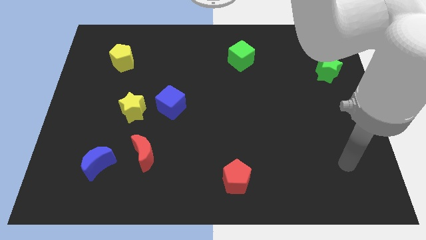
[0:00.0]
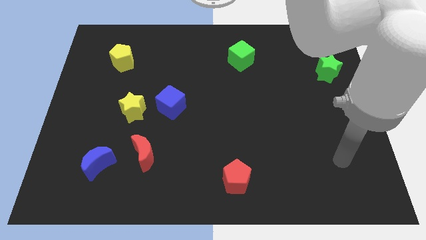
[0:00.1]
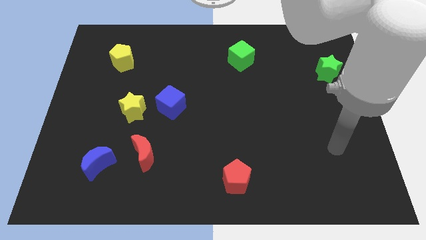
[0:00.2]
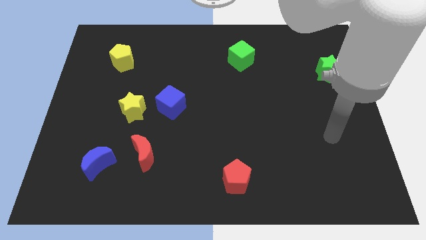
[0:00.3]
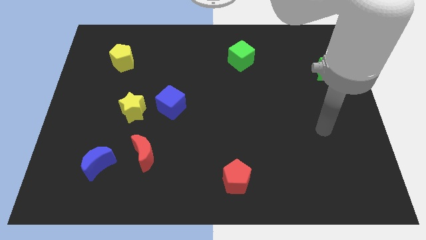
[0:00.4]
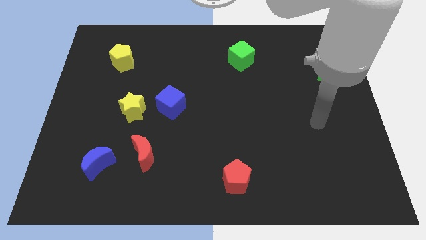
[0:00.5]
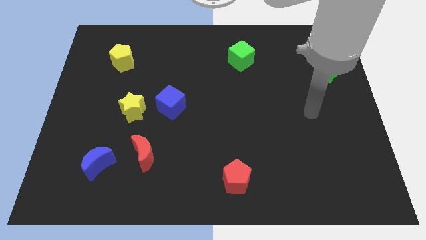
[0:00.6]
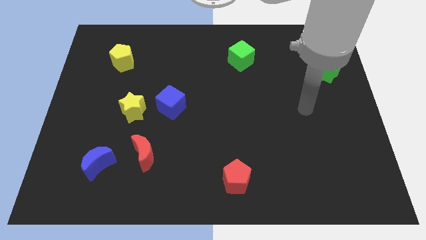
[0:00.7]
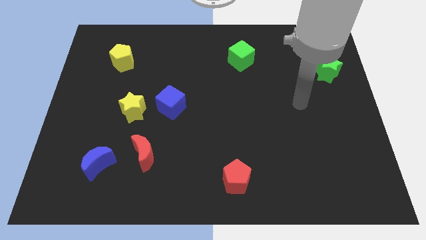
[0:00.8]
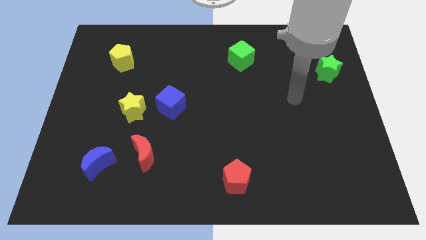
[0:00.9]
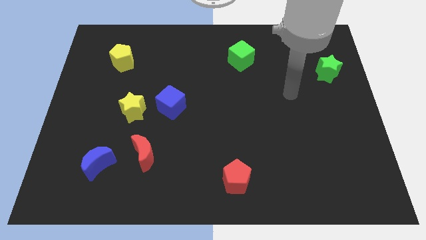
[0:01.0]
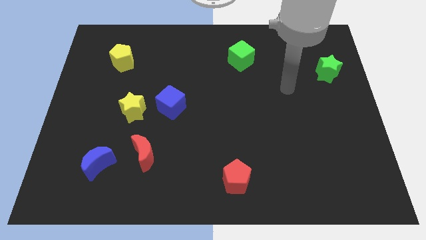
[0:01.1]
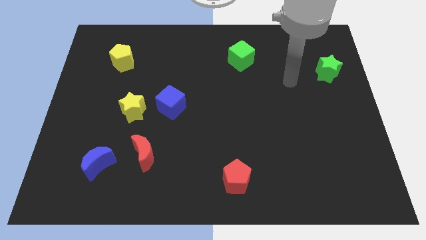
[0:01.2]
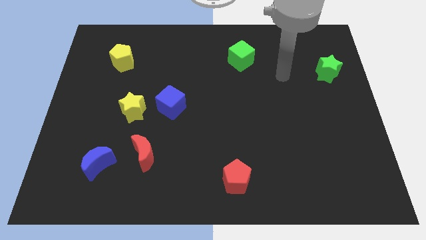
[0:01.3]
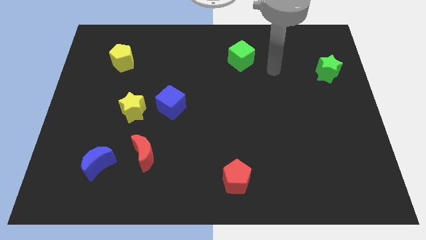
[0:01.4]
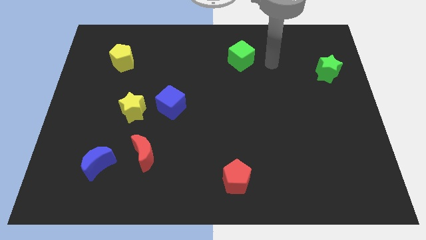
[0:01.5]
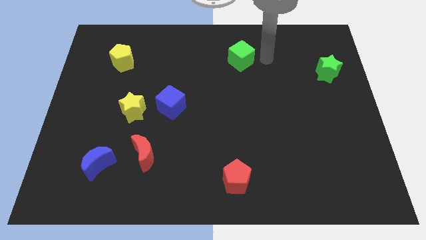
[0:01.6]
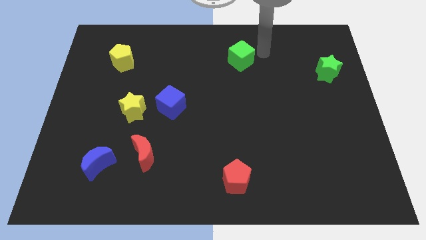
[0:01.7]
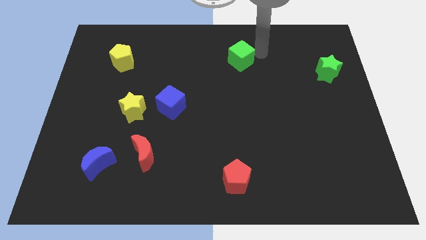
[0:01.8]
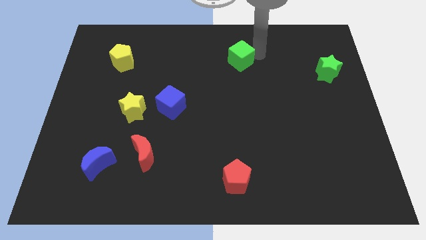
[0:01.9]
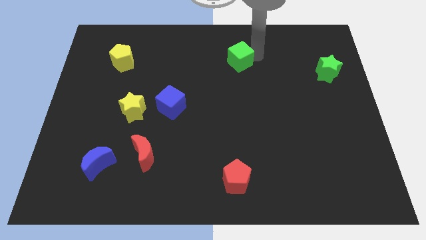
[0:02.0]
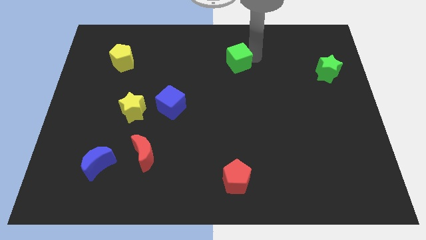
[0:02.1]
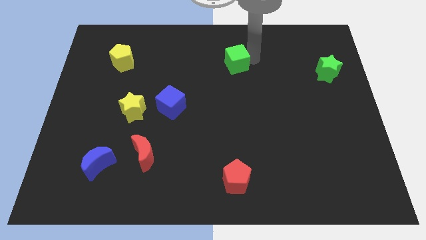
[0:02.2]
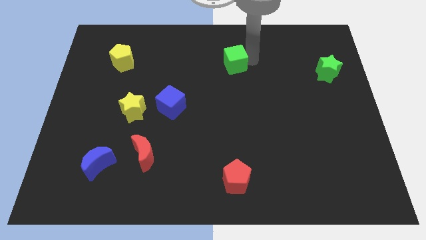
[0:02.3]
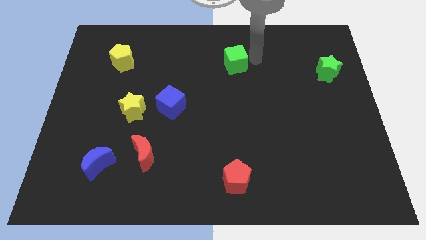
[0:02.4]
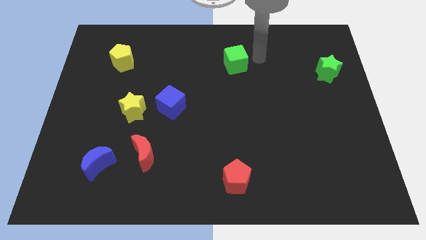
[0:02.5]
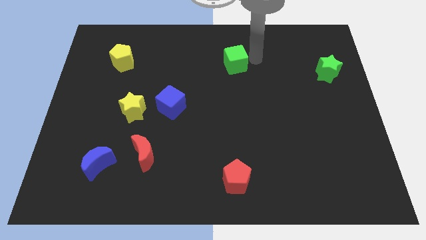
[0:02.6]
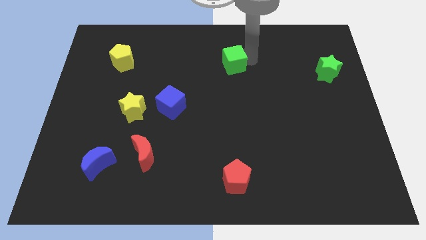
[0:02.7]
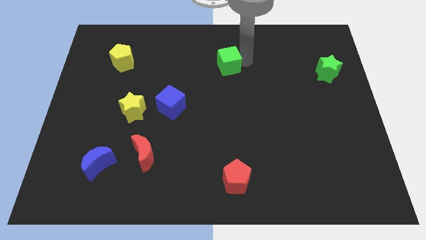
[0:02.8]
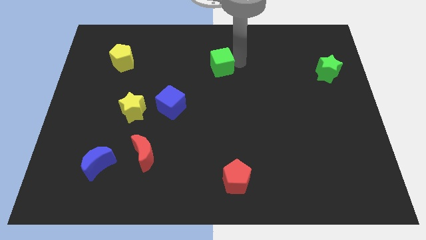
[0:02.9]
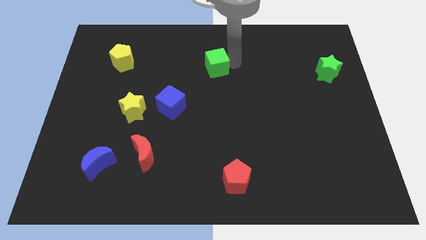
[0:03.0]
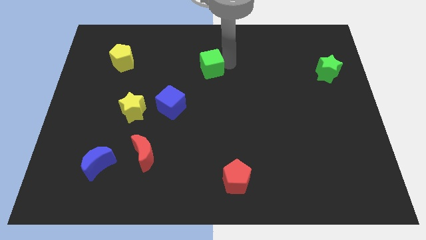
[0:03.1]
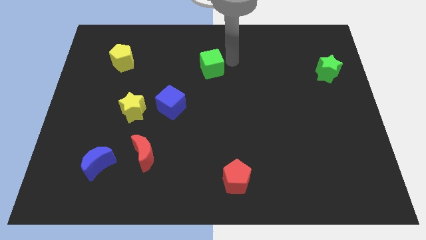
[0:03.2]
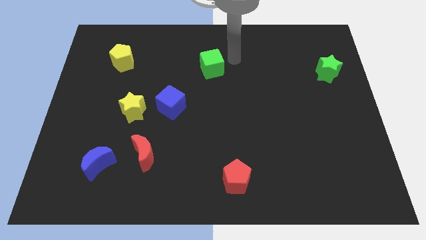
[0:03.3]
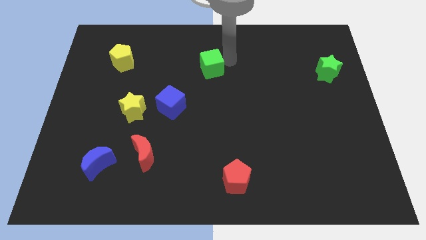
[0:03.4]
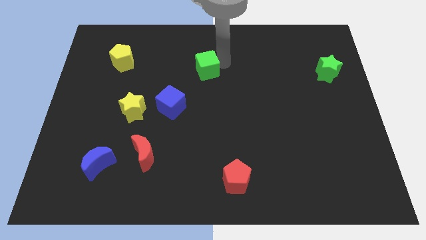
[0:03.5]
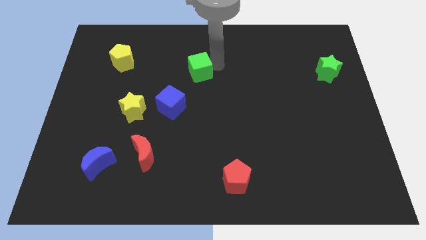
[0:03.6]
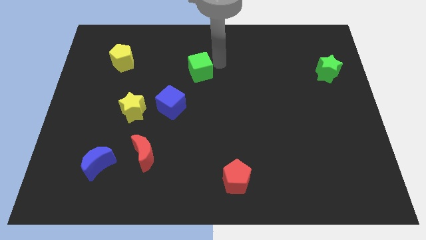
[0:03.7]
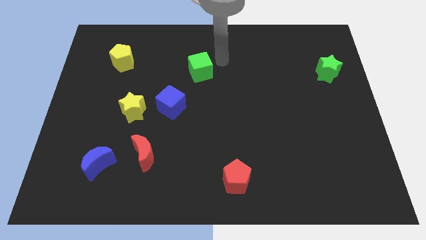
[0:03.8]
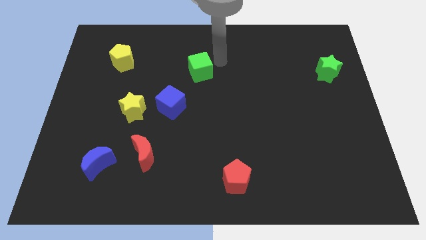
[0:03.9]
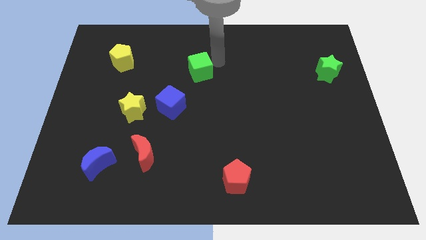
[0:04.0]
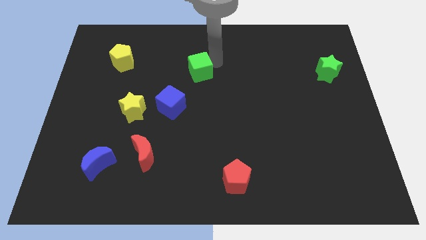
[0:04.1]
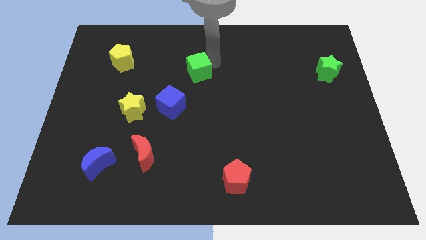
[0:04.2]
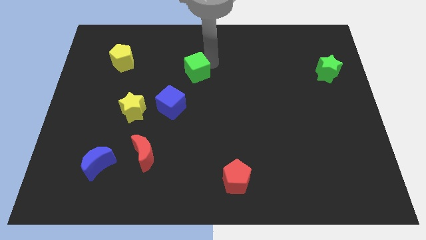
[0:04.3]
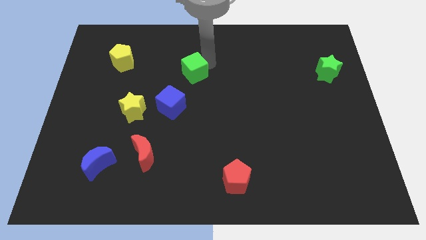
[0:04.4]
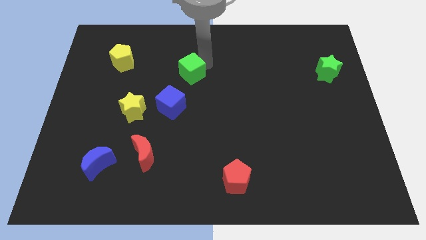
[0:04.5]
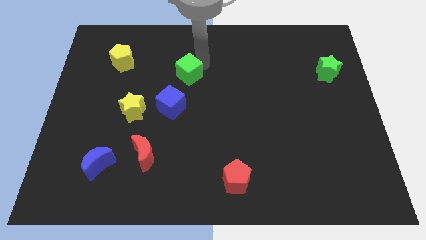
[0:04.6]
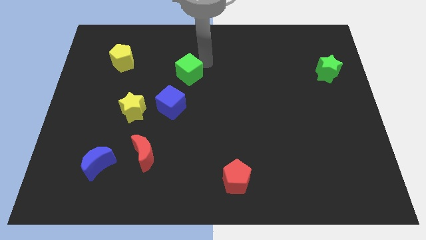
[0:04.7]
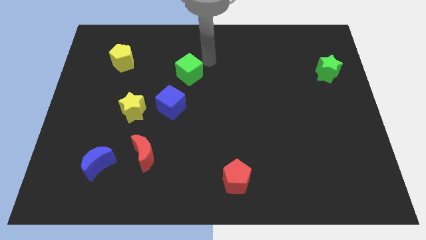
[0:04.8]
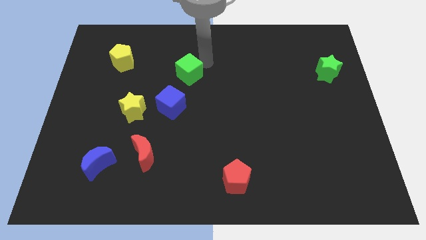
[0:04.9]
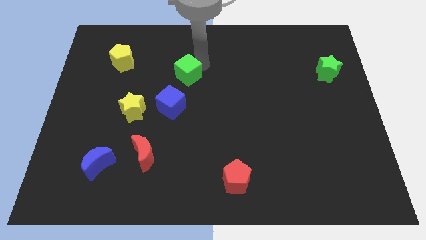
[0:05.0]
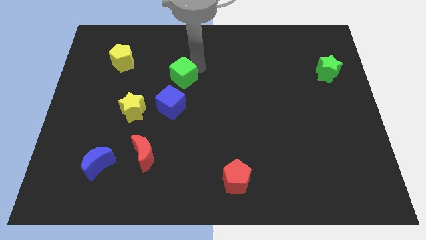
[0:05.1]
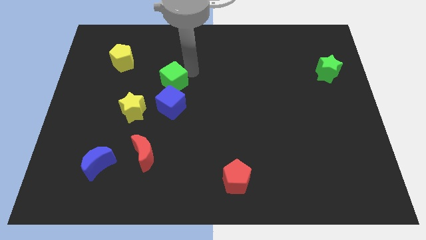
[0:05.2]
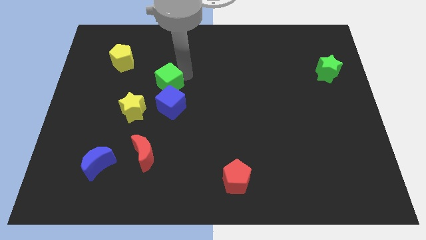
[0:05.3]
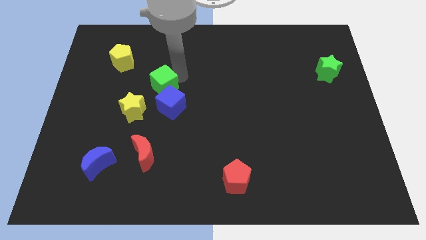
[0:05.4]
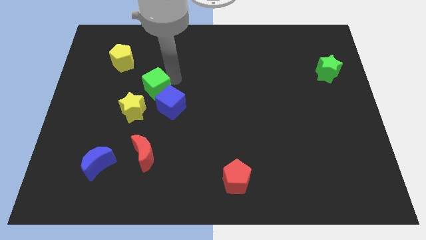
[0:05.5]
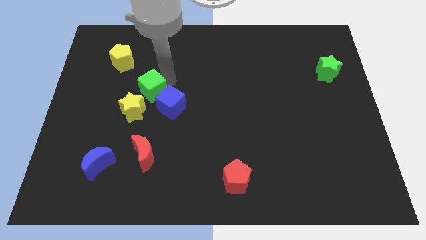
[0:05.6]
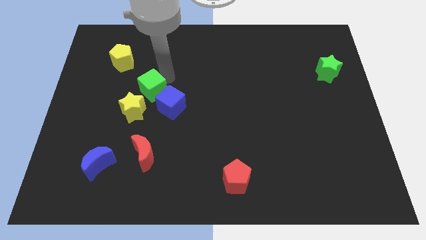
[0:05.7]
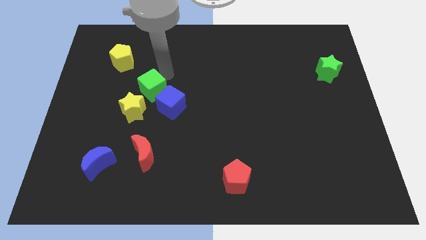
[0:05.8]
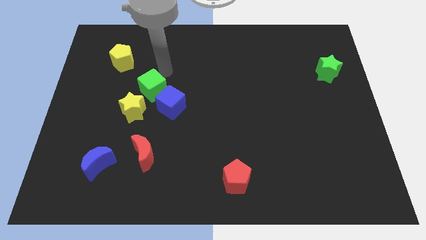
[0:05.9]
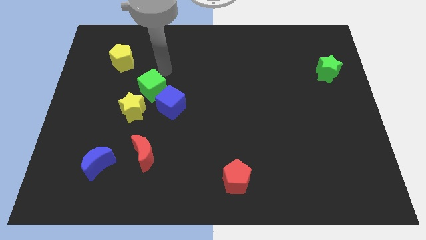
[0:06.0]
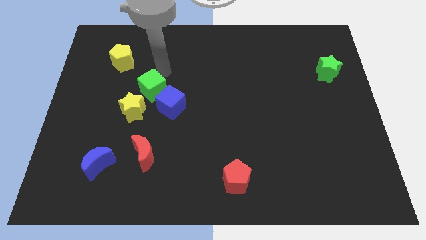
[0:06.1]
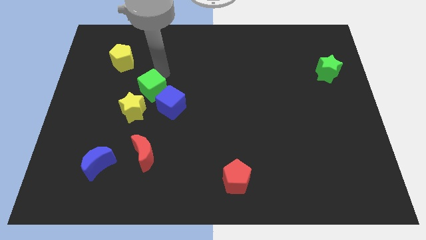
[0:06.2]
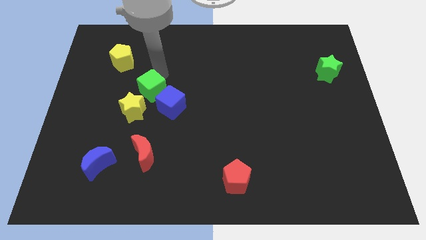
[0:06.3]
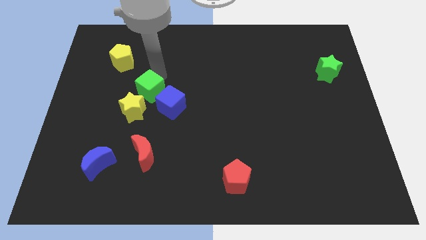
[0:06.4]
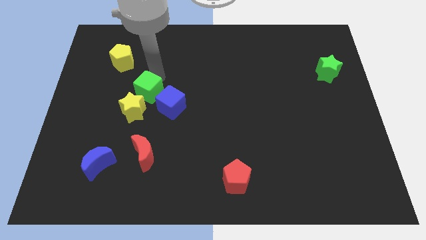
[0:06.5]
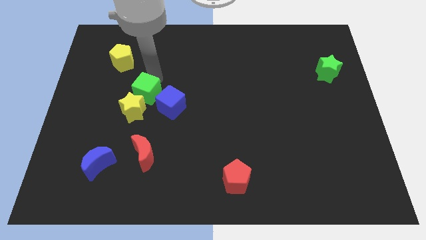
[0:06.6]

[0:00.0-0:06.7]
put the green cube to the yellow star
